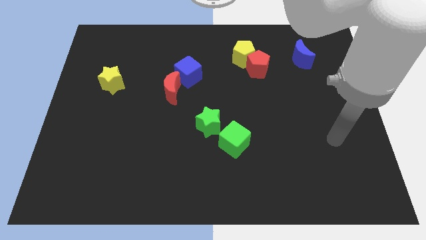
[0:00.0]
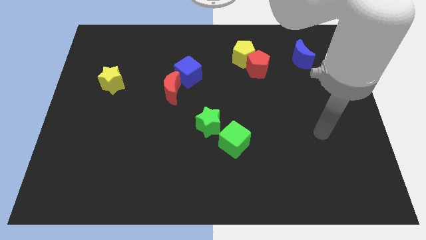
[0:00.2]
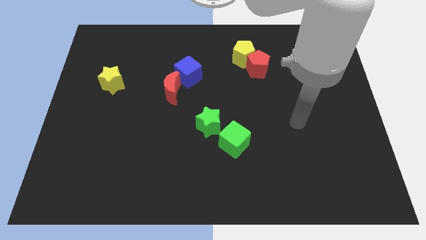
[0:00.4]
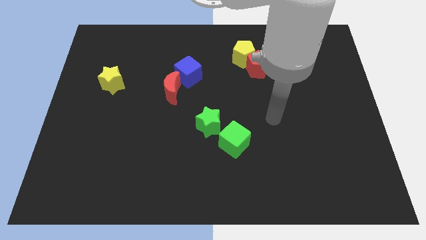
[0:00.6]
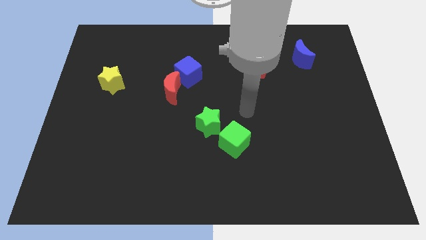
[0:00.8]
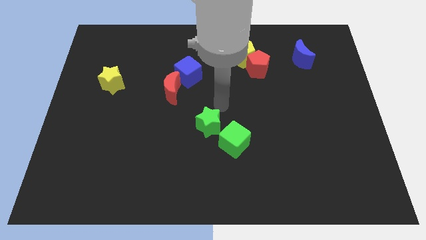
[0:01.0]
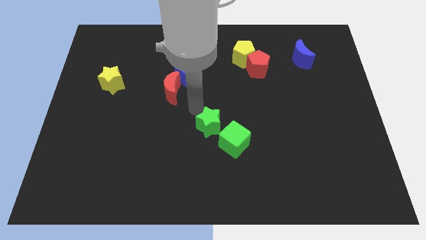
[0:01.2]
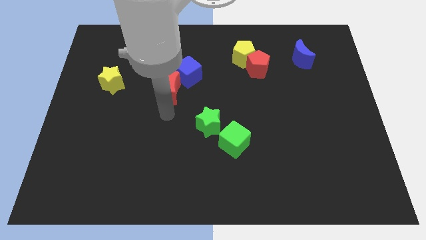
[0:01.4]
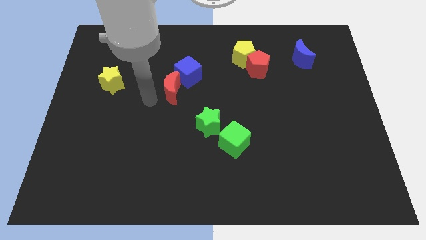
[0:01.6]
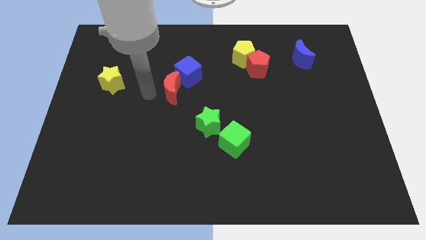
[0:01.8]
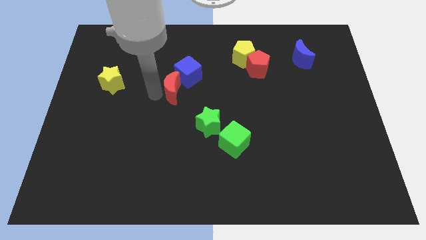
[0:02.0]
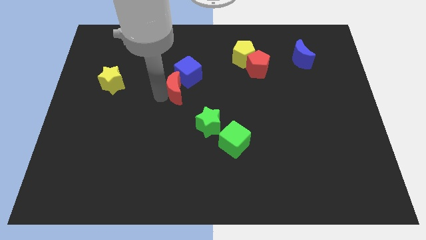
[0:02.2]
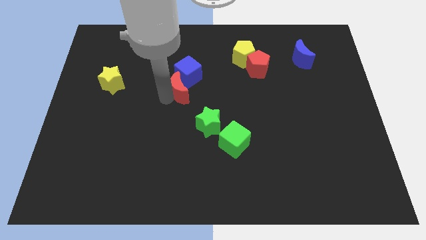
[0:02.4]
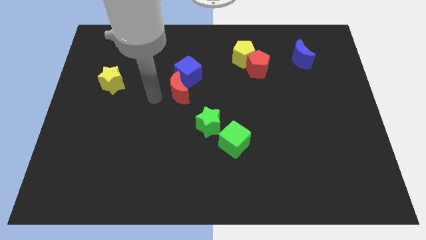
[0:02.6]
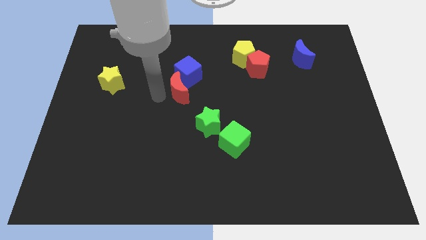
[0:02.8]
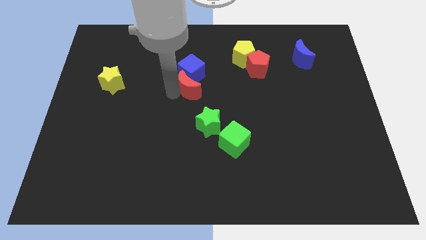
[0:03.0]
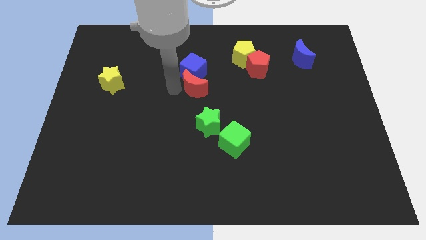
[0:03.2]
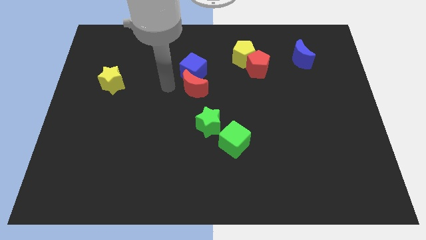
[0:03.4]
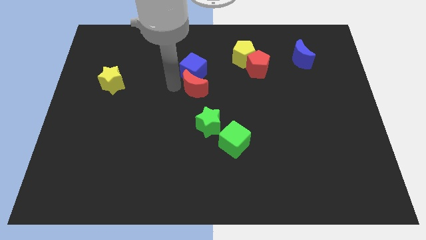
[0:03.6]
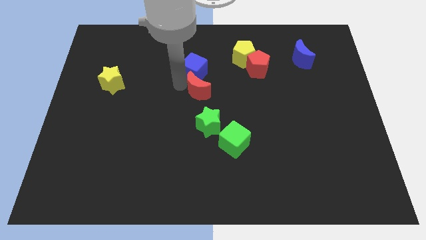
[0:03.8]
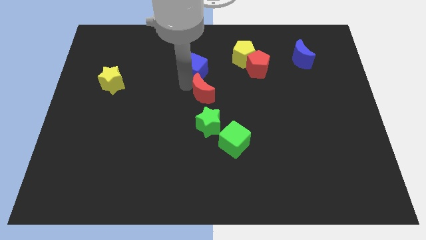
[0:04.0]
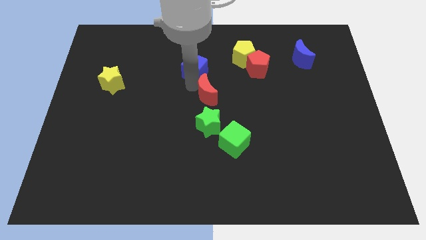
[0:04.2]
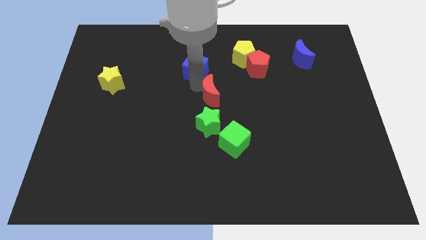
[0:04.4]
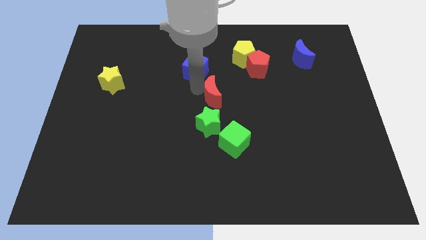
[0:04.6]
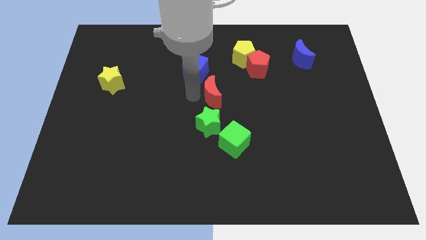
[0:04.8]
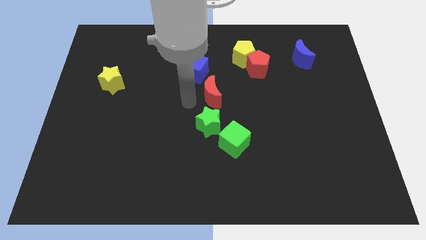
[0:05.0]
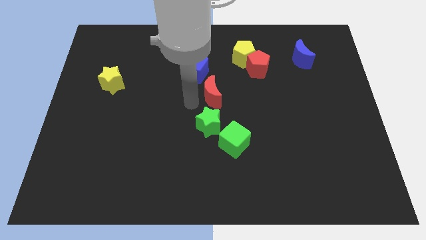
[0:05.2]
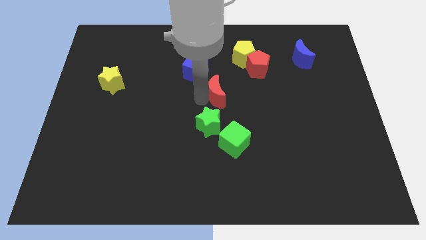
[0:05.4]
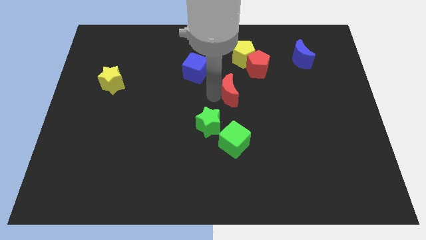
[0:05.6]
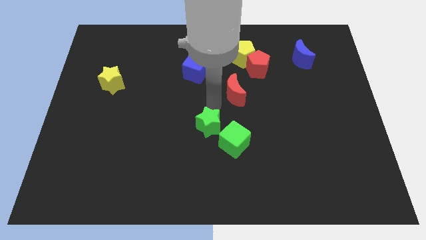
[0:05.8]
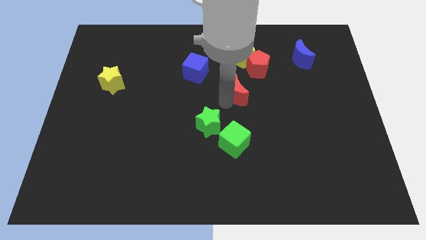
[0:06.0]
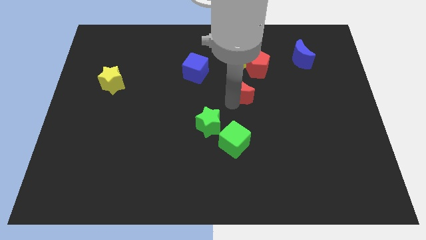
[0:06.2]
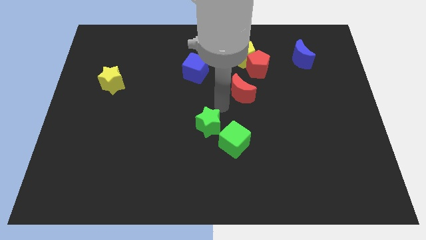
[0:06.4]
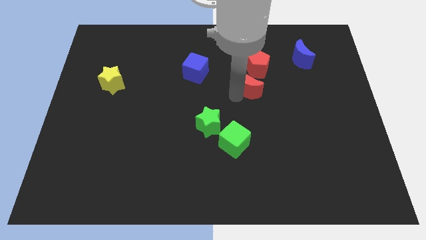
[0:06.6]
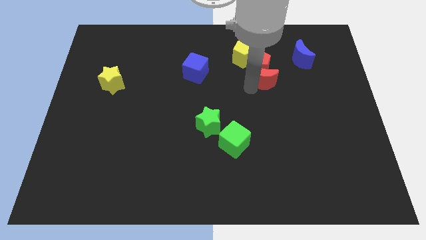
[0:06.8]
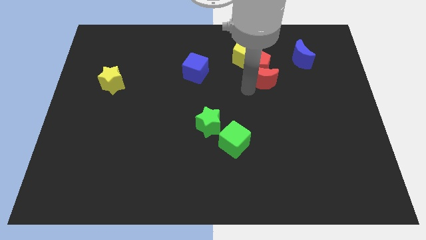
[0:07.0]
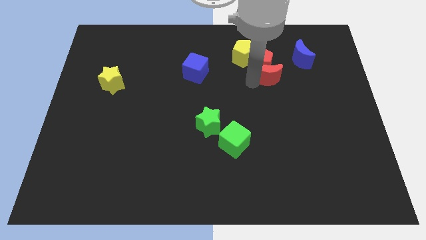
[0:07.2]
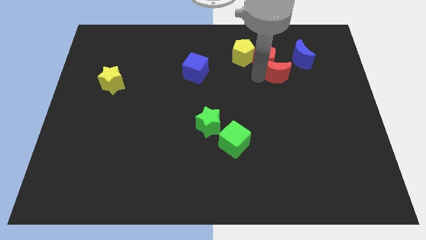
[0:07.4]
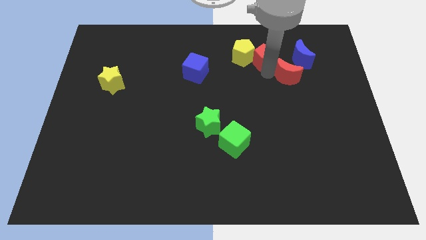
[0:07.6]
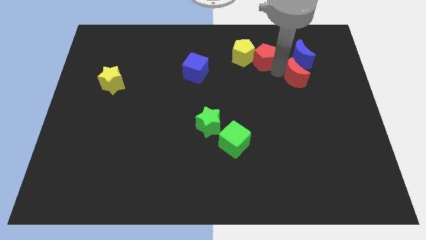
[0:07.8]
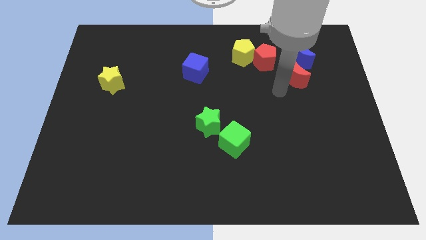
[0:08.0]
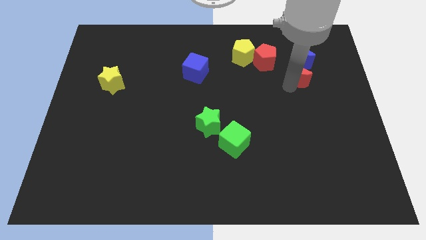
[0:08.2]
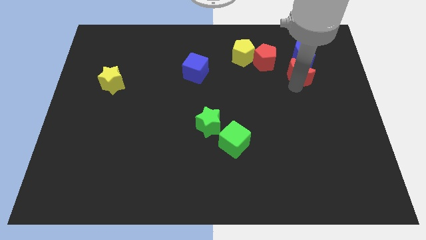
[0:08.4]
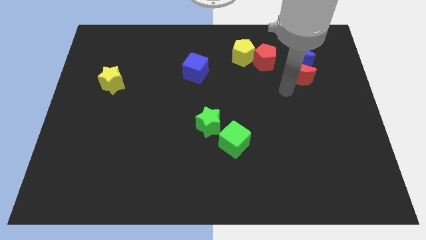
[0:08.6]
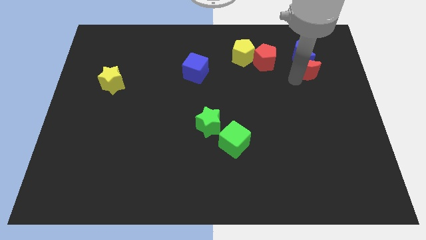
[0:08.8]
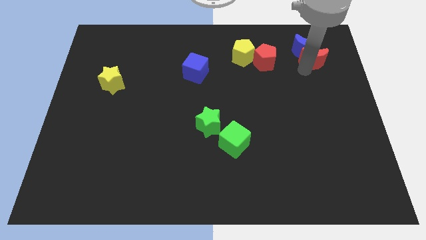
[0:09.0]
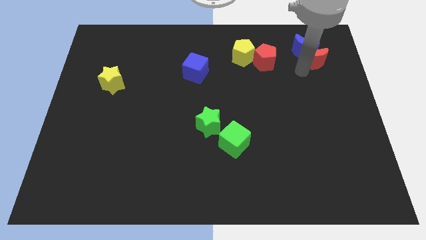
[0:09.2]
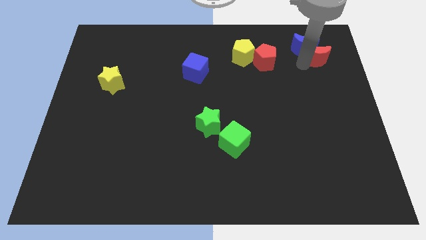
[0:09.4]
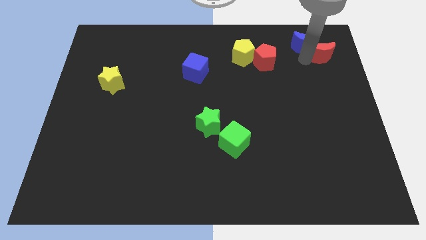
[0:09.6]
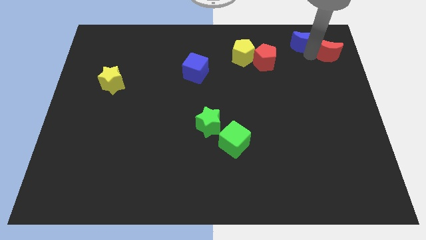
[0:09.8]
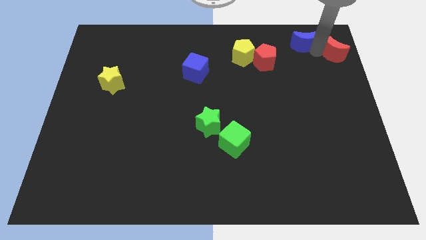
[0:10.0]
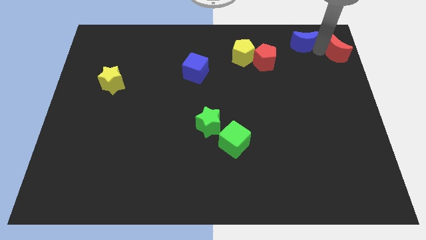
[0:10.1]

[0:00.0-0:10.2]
slide the red moon to the upper right corner

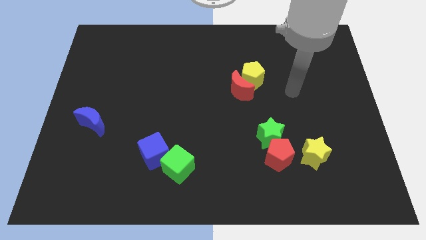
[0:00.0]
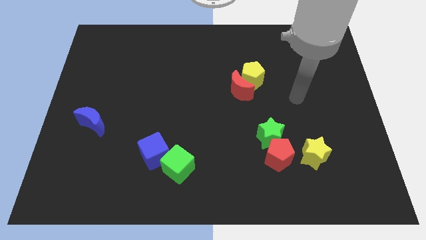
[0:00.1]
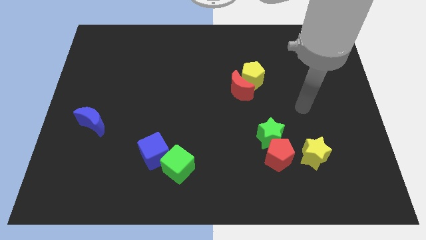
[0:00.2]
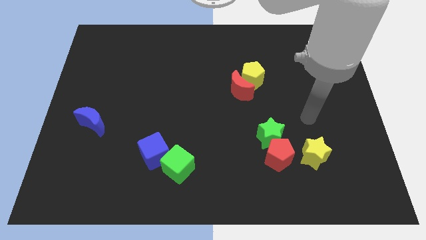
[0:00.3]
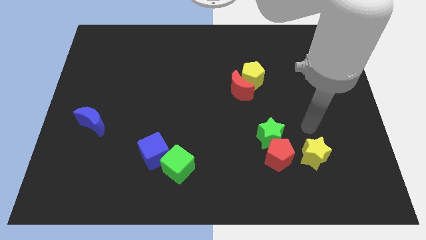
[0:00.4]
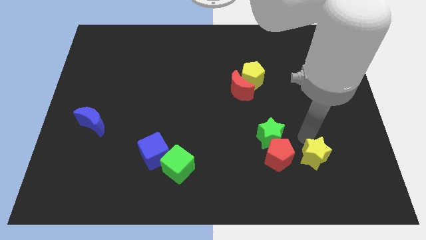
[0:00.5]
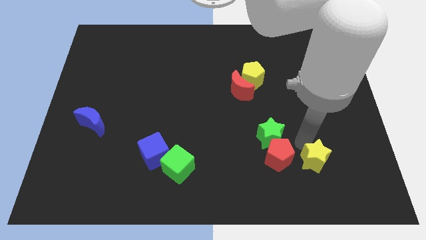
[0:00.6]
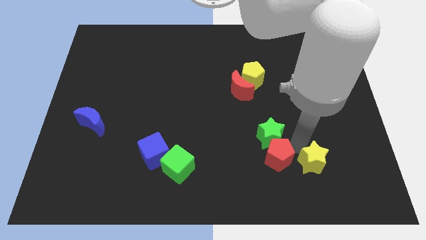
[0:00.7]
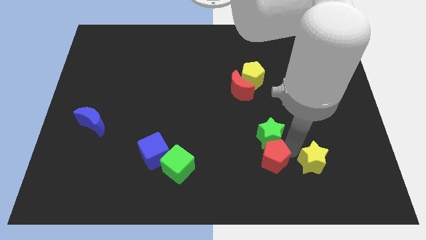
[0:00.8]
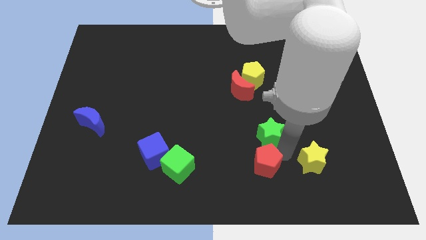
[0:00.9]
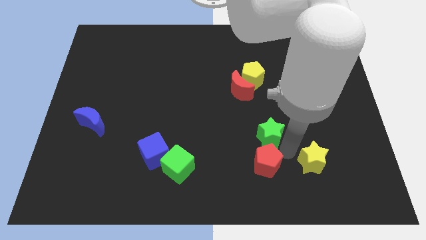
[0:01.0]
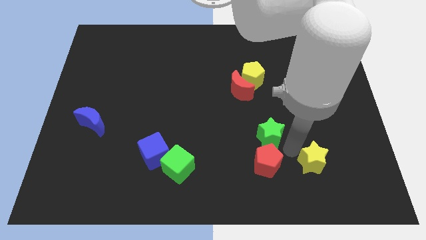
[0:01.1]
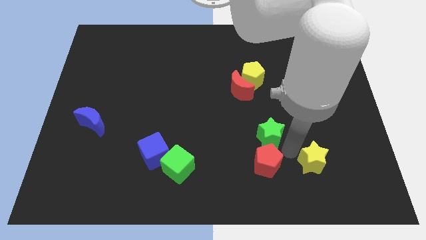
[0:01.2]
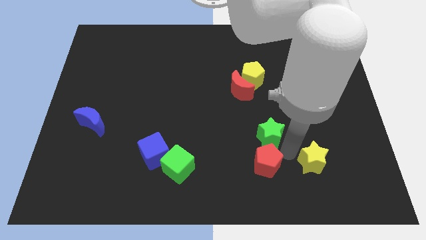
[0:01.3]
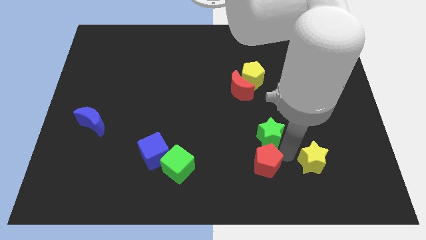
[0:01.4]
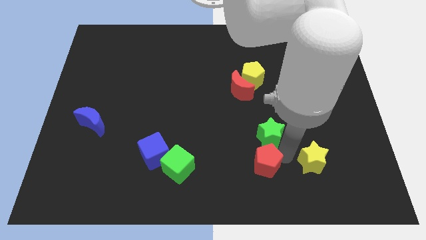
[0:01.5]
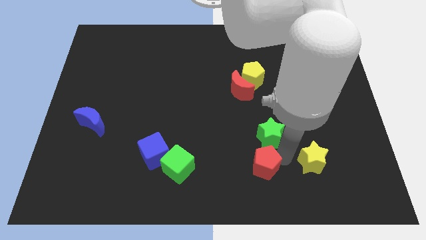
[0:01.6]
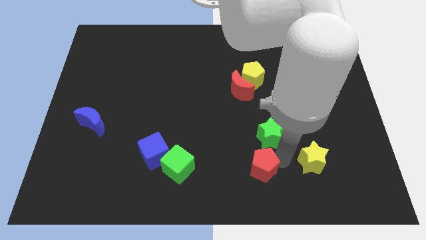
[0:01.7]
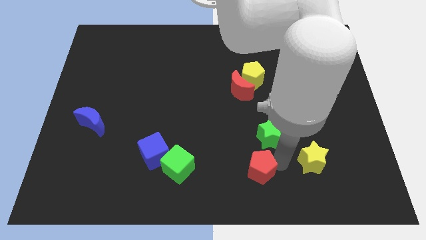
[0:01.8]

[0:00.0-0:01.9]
slide the red pentagon to the bottom
